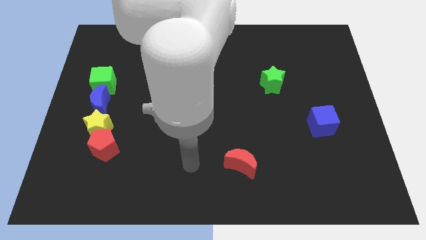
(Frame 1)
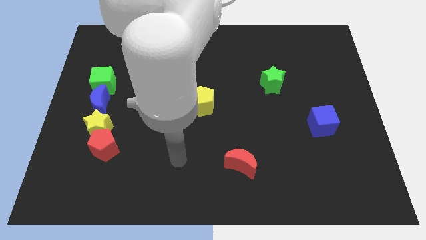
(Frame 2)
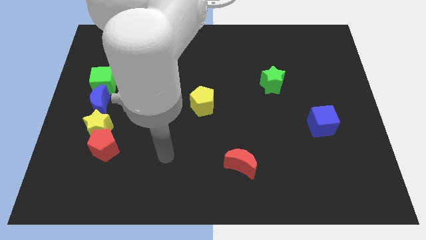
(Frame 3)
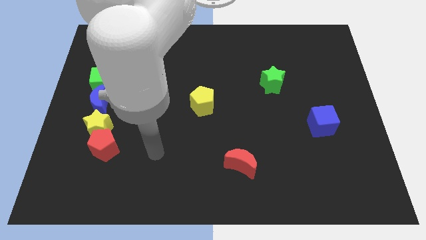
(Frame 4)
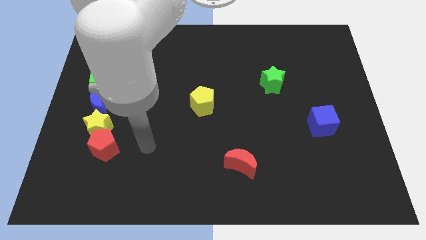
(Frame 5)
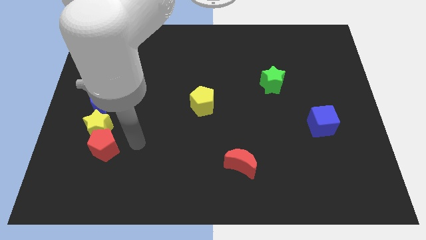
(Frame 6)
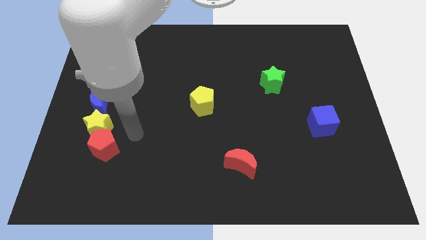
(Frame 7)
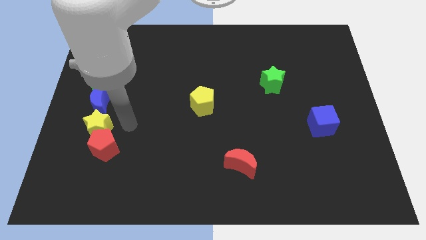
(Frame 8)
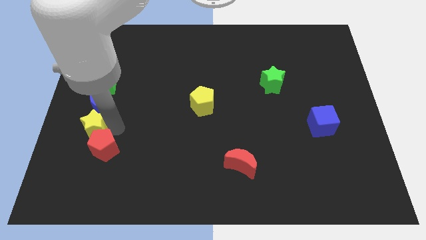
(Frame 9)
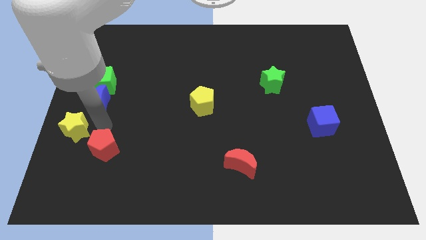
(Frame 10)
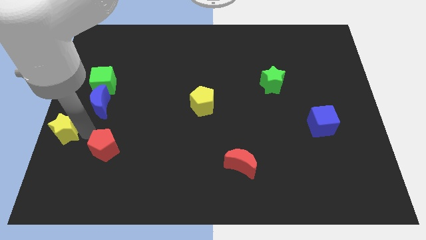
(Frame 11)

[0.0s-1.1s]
pull the red pentagon apart from the yellow star

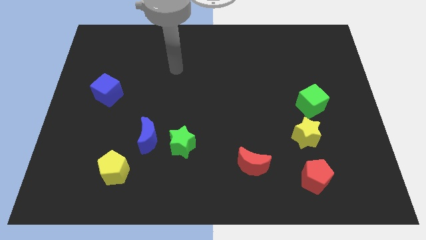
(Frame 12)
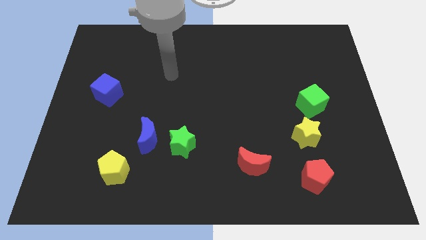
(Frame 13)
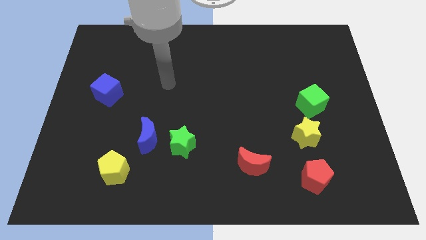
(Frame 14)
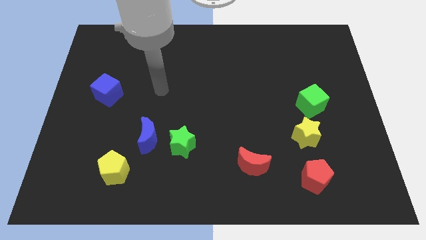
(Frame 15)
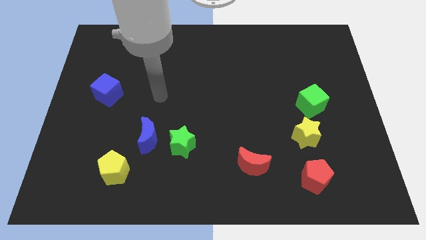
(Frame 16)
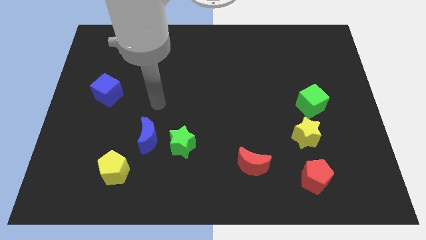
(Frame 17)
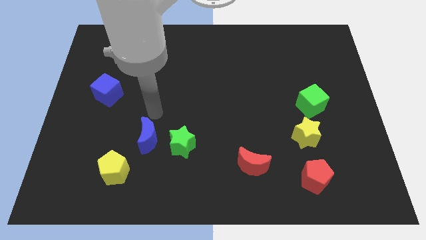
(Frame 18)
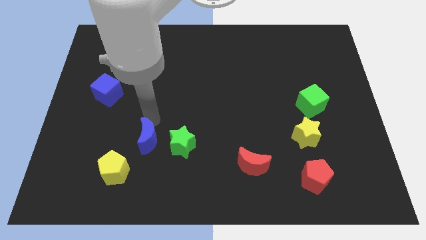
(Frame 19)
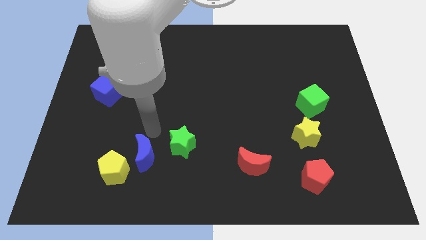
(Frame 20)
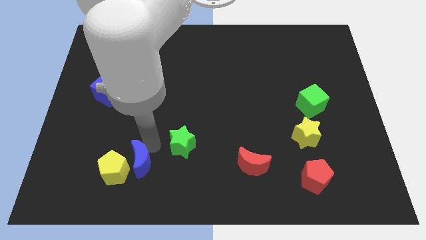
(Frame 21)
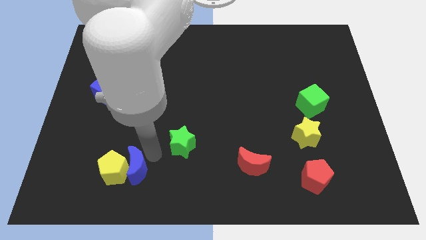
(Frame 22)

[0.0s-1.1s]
pull the green star apart from the blue moon

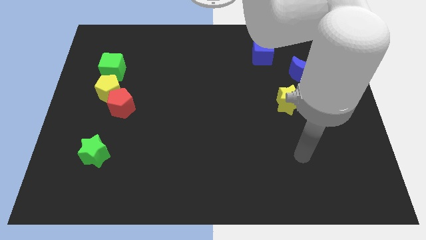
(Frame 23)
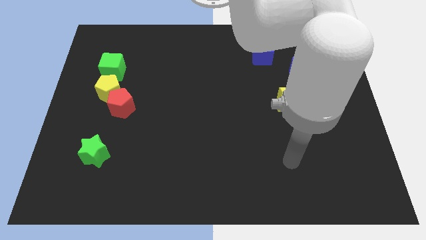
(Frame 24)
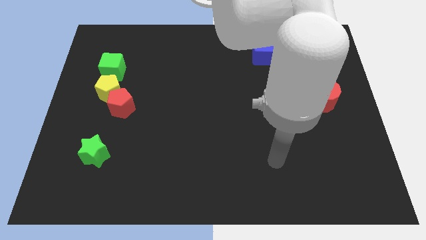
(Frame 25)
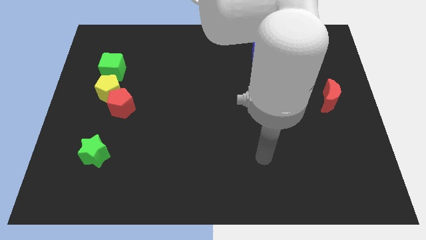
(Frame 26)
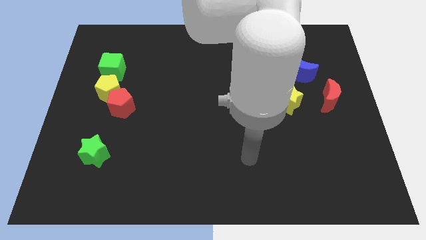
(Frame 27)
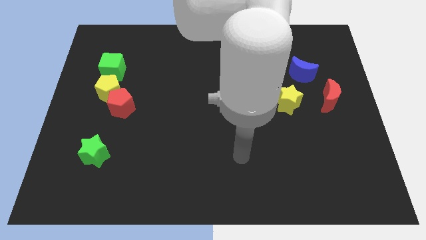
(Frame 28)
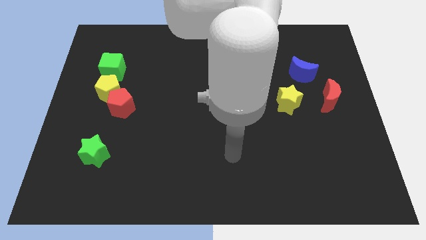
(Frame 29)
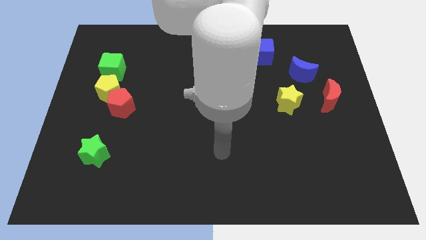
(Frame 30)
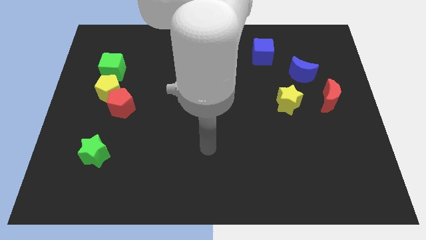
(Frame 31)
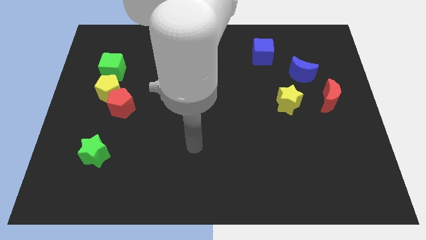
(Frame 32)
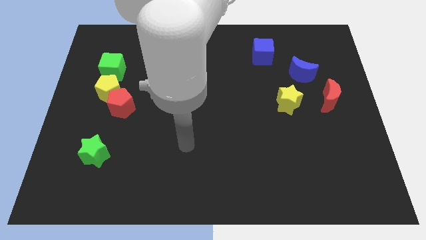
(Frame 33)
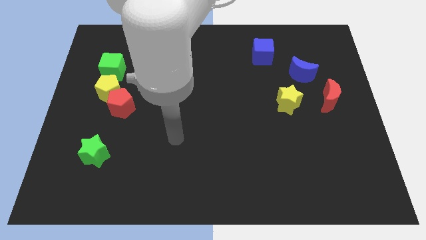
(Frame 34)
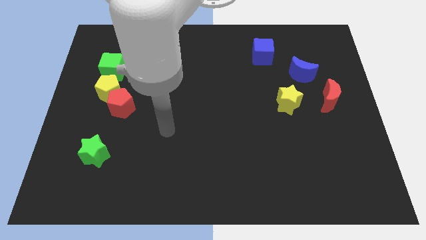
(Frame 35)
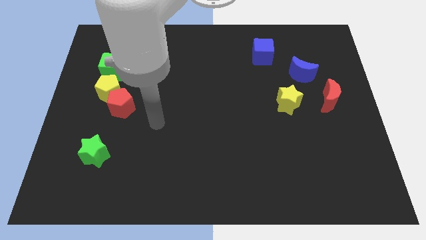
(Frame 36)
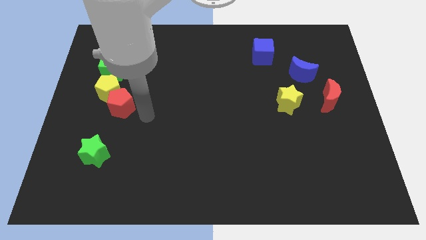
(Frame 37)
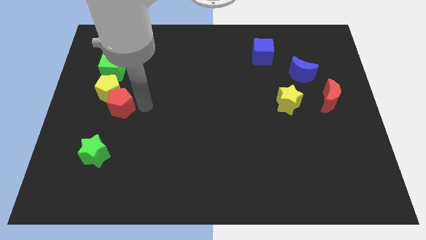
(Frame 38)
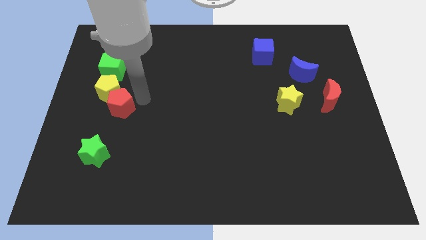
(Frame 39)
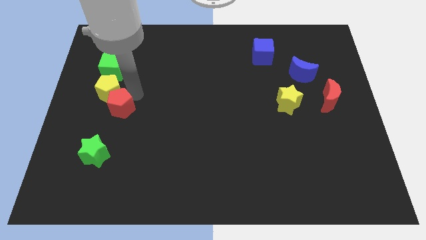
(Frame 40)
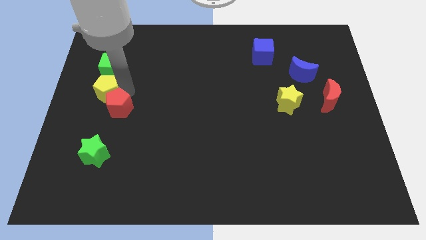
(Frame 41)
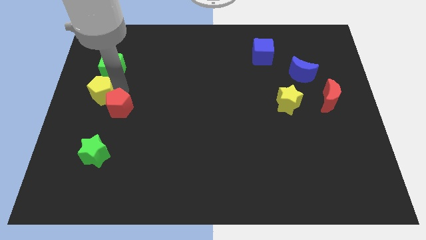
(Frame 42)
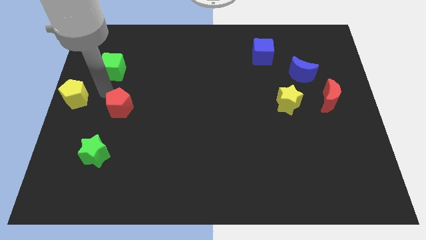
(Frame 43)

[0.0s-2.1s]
separate the red pentagon from the yellow pentagon

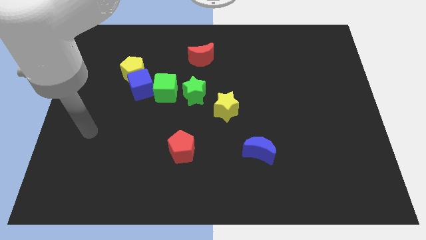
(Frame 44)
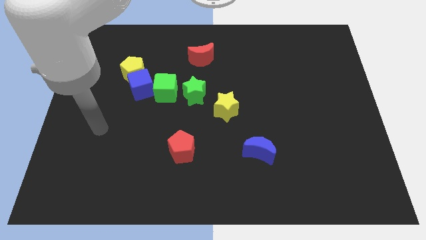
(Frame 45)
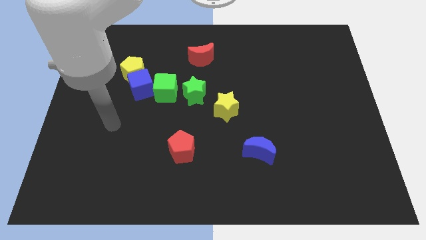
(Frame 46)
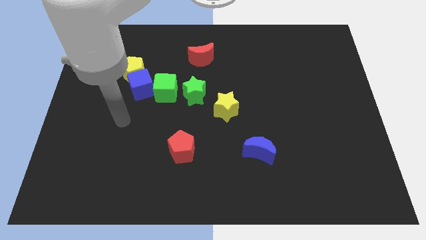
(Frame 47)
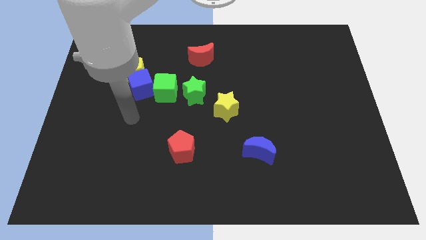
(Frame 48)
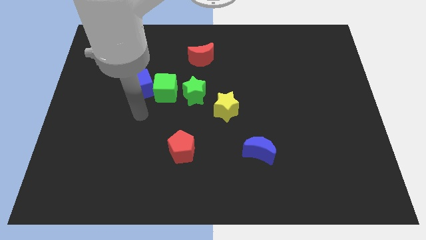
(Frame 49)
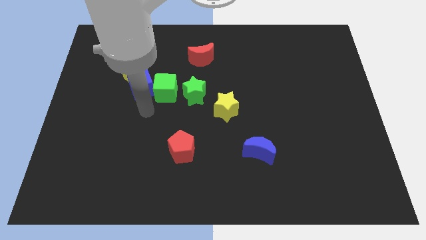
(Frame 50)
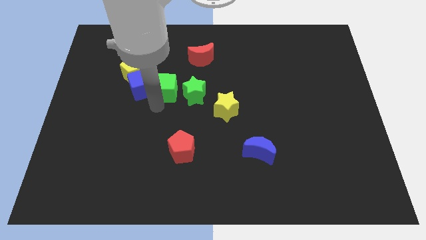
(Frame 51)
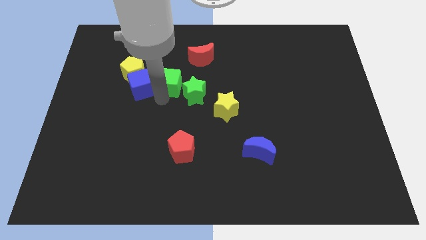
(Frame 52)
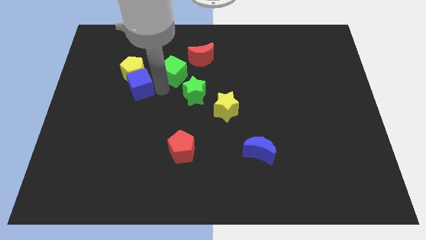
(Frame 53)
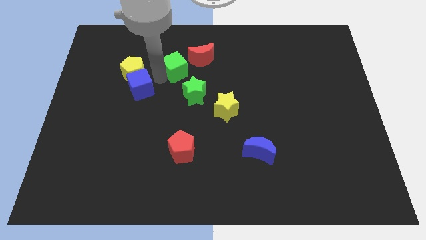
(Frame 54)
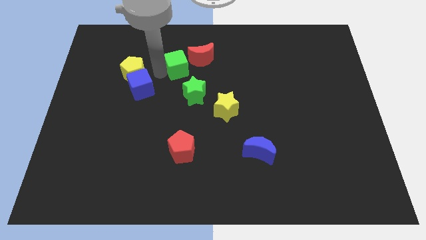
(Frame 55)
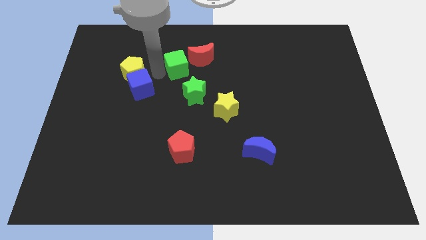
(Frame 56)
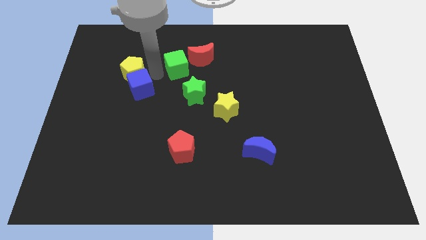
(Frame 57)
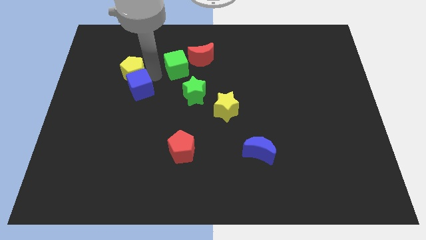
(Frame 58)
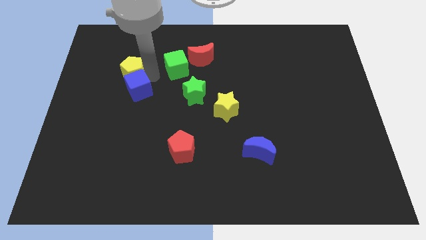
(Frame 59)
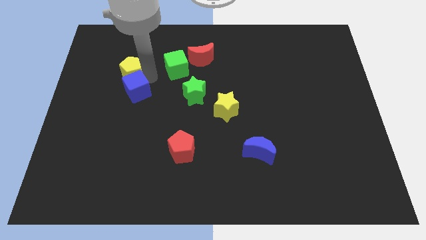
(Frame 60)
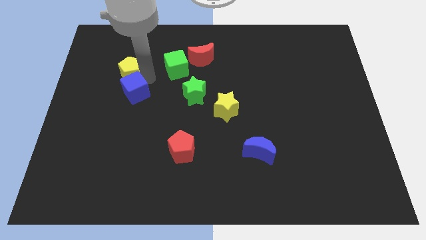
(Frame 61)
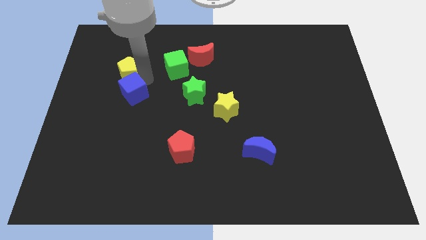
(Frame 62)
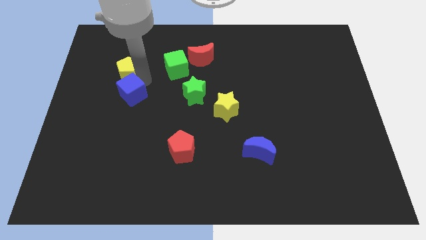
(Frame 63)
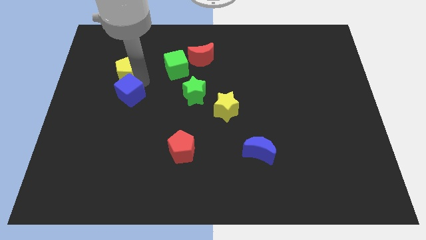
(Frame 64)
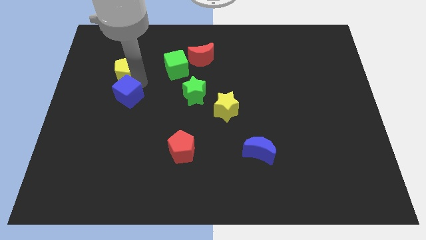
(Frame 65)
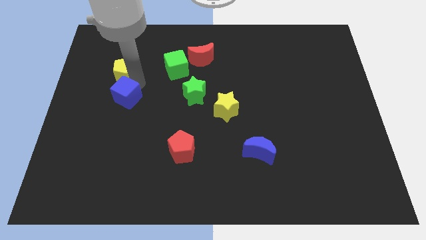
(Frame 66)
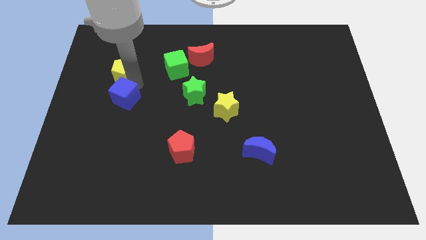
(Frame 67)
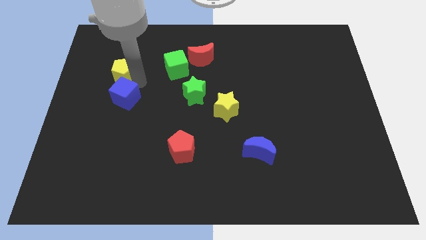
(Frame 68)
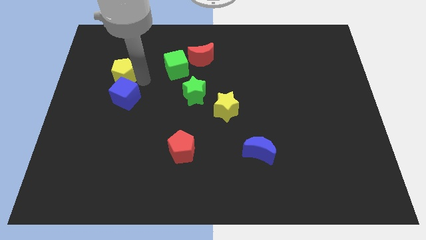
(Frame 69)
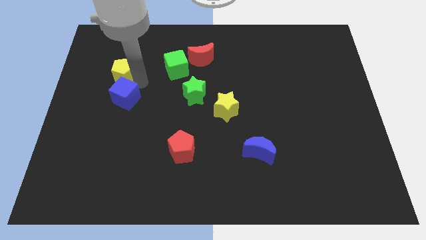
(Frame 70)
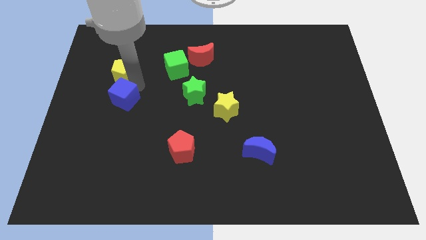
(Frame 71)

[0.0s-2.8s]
pull the blue cube apart from the yellow pentagon and green cube

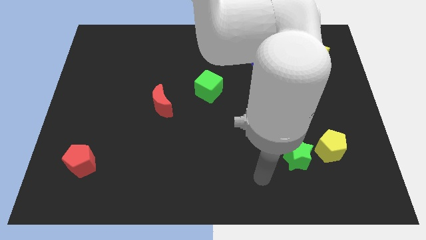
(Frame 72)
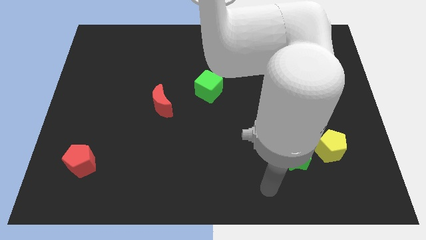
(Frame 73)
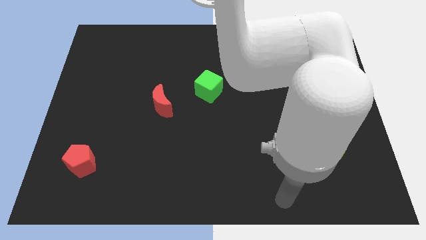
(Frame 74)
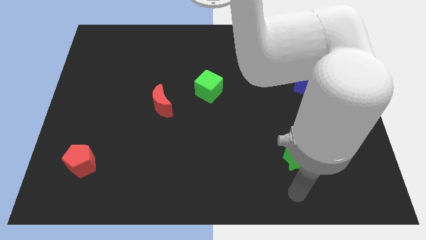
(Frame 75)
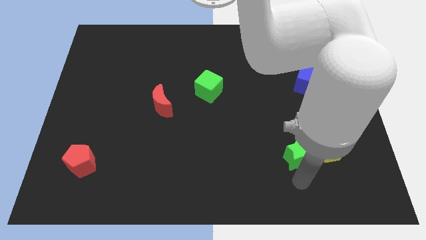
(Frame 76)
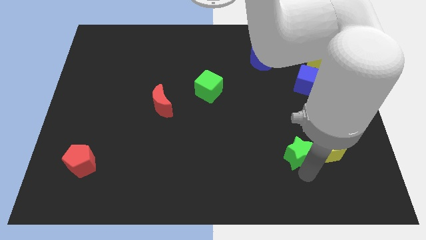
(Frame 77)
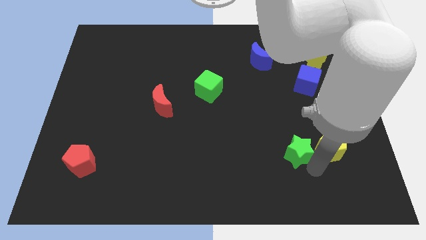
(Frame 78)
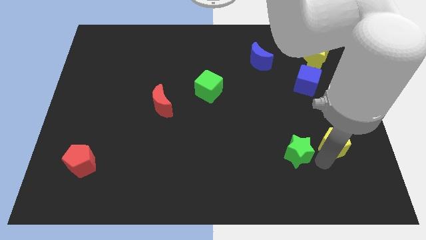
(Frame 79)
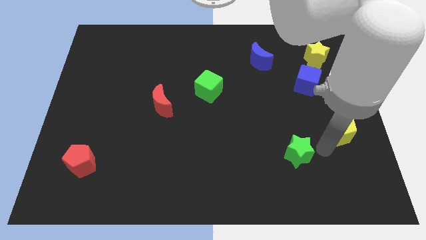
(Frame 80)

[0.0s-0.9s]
move the green star away from the yellow pentagon

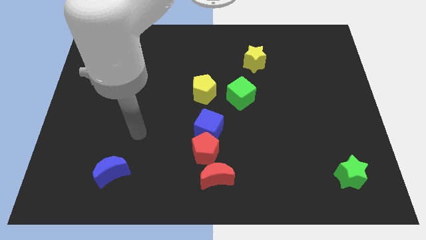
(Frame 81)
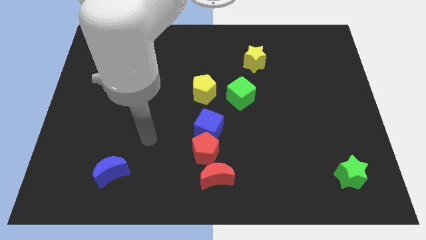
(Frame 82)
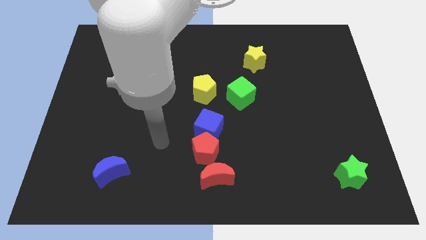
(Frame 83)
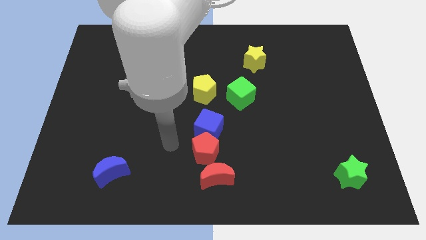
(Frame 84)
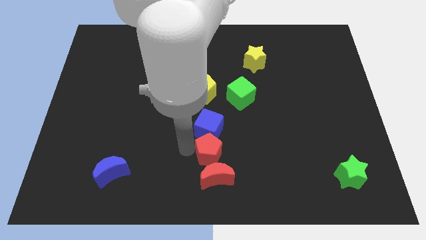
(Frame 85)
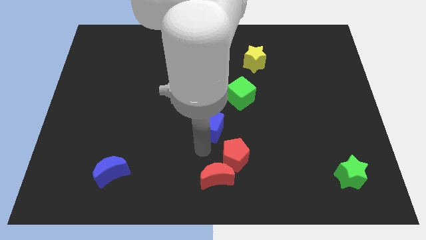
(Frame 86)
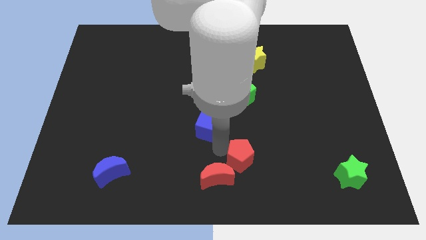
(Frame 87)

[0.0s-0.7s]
move the blue cube away from the red pentagon

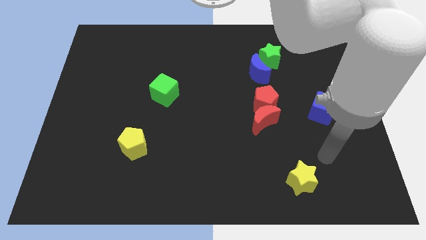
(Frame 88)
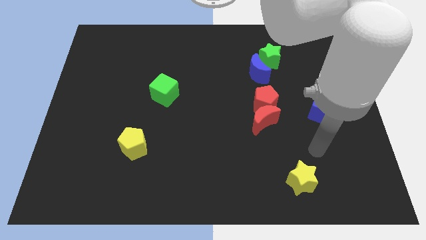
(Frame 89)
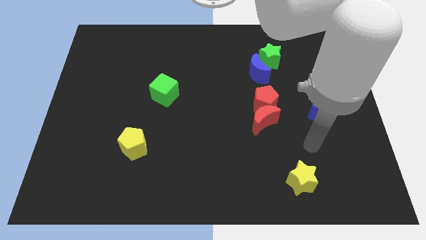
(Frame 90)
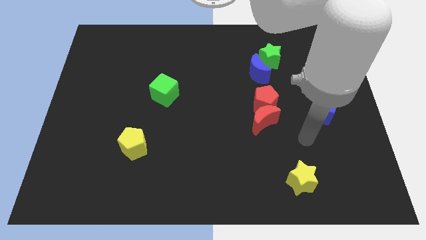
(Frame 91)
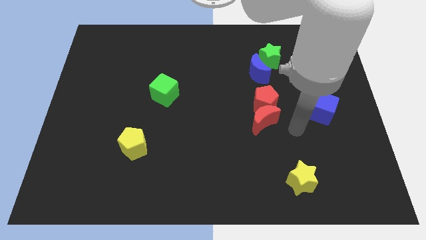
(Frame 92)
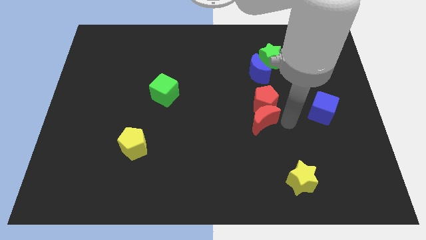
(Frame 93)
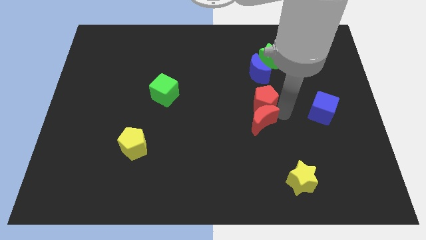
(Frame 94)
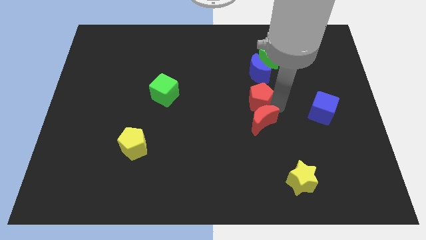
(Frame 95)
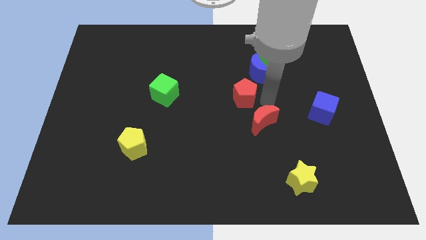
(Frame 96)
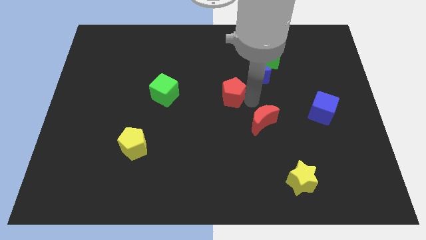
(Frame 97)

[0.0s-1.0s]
separate the red moon from the red pentagon
